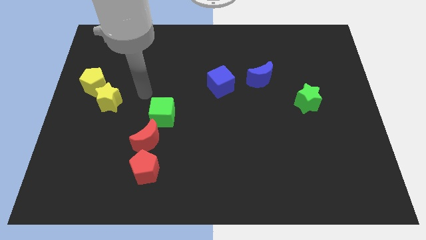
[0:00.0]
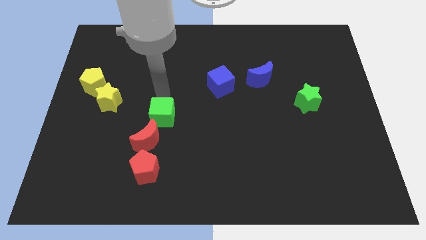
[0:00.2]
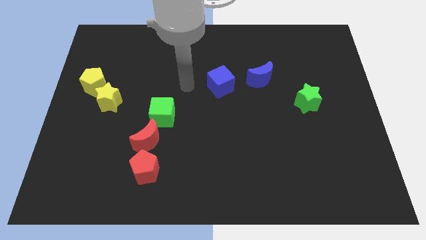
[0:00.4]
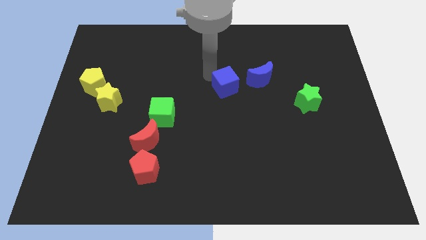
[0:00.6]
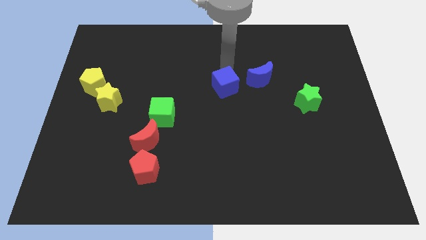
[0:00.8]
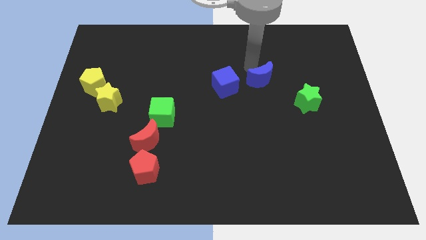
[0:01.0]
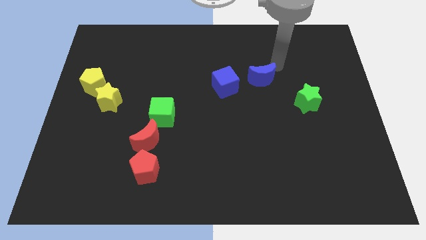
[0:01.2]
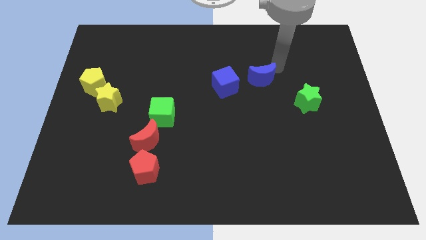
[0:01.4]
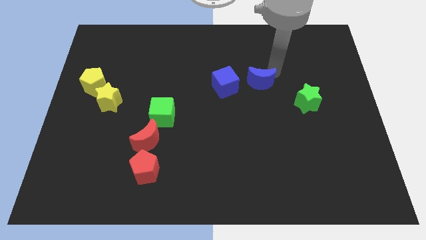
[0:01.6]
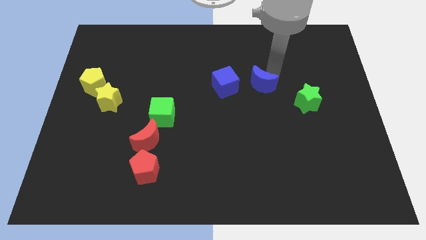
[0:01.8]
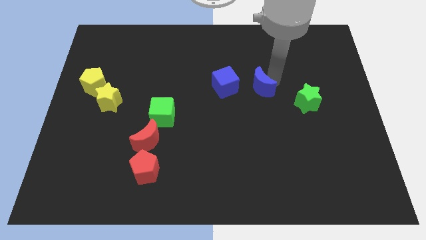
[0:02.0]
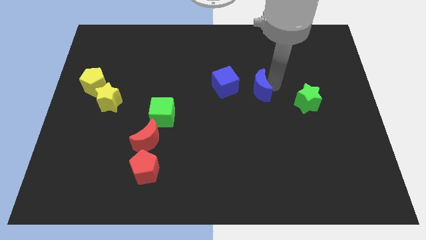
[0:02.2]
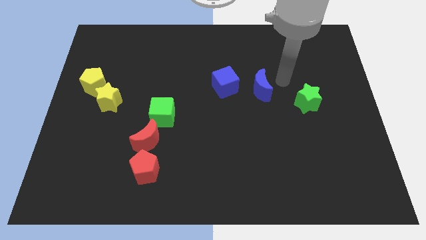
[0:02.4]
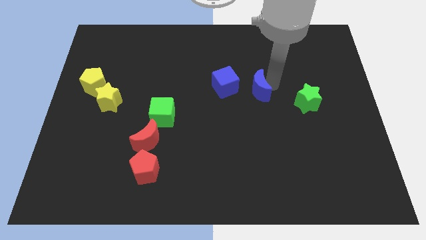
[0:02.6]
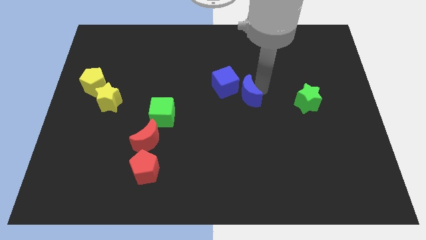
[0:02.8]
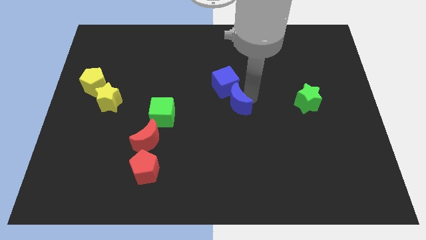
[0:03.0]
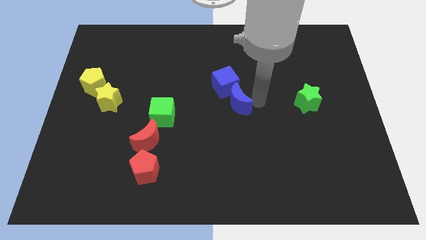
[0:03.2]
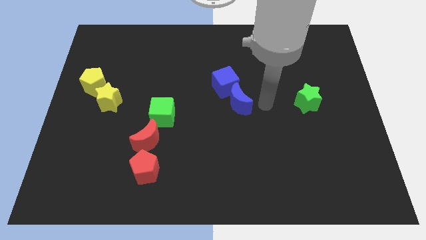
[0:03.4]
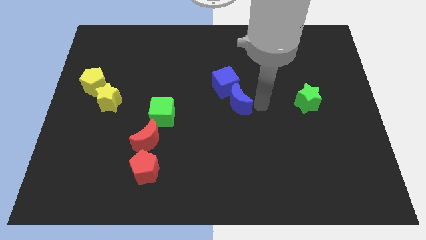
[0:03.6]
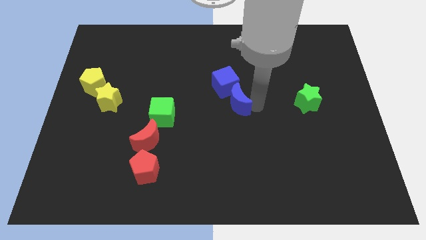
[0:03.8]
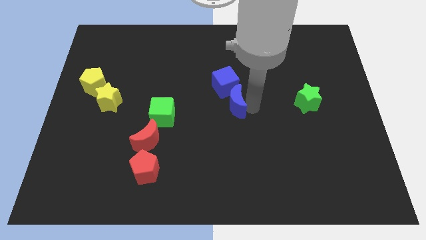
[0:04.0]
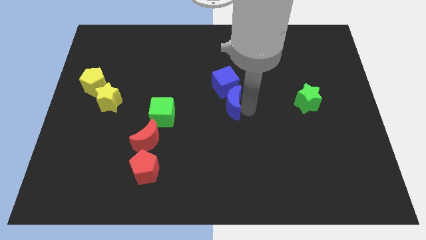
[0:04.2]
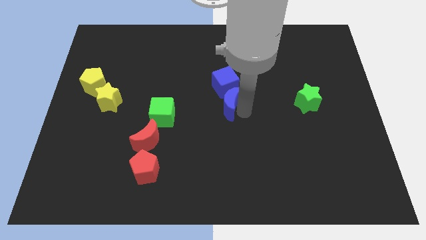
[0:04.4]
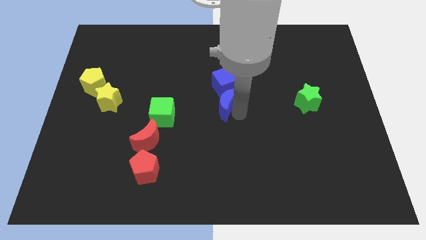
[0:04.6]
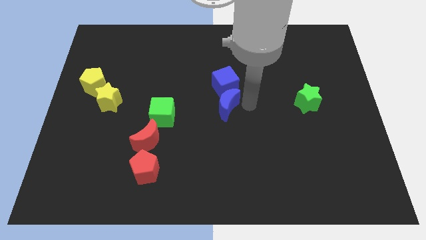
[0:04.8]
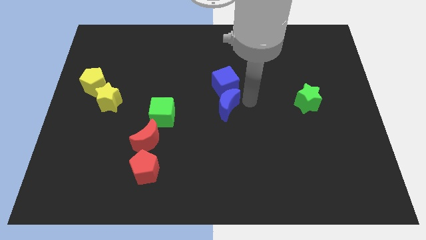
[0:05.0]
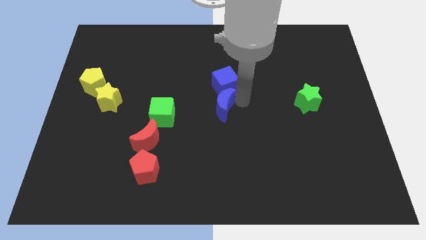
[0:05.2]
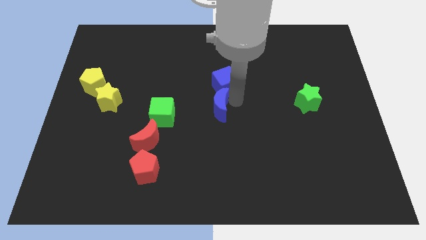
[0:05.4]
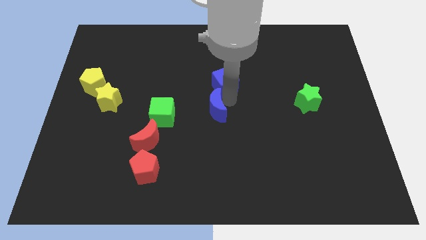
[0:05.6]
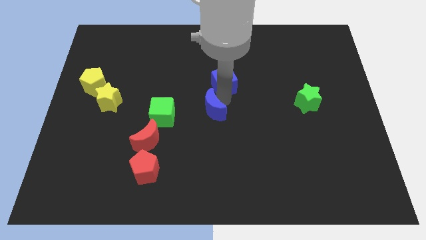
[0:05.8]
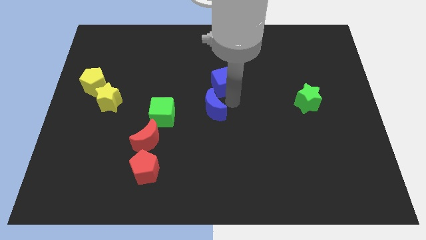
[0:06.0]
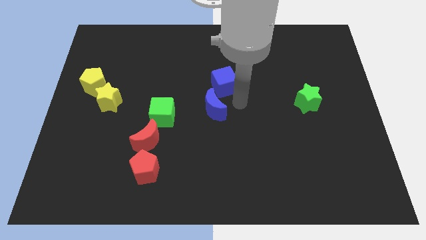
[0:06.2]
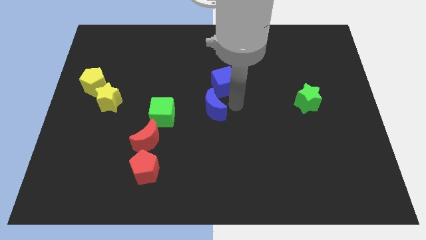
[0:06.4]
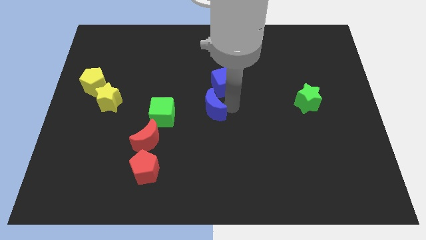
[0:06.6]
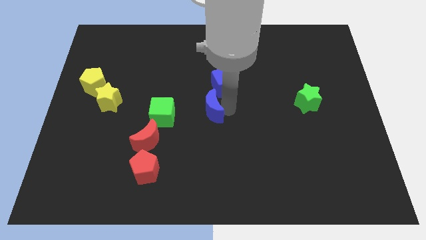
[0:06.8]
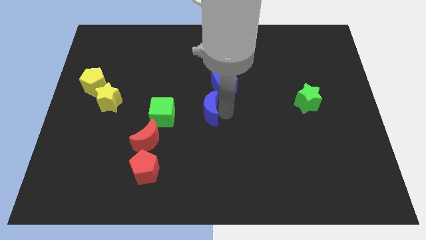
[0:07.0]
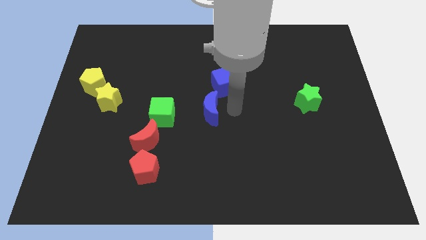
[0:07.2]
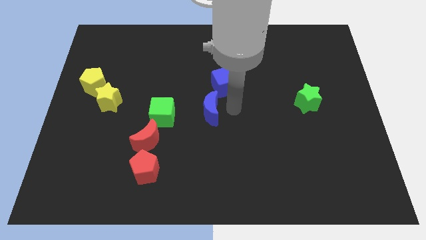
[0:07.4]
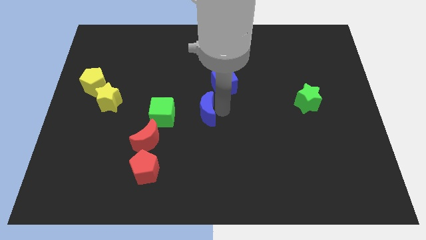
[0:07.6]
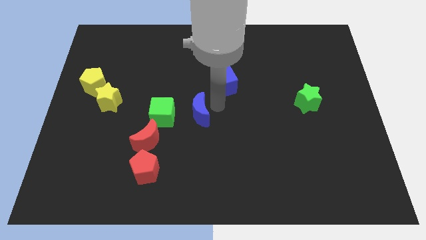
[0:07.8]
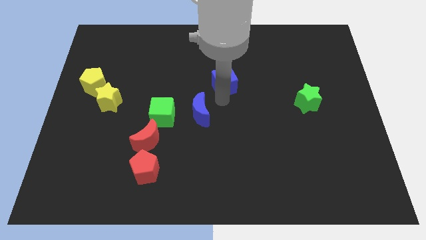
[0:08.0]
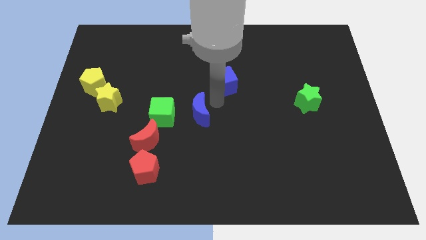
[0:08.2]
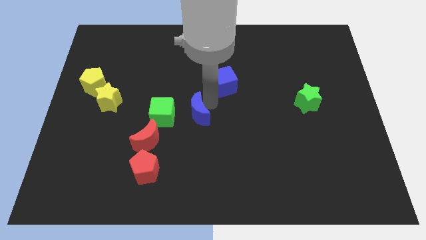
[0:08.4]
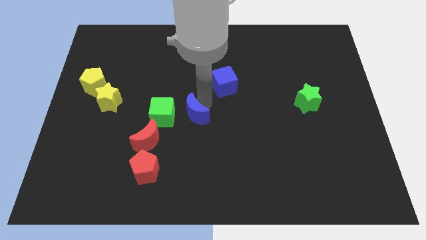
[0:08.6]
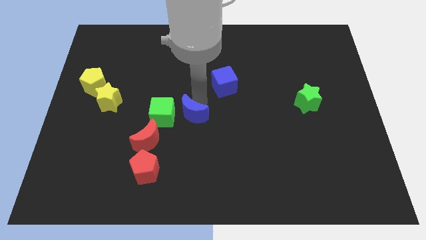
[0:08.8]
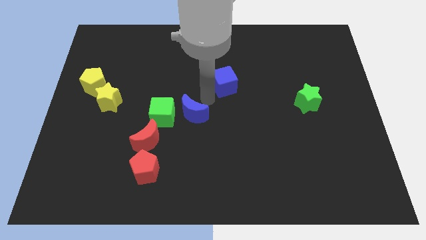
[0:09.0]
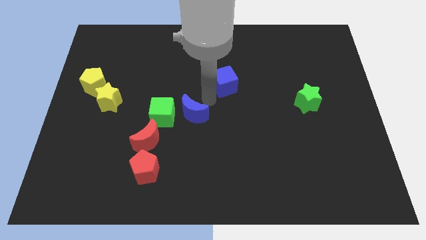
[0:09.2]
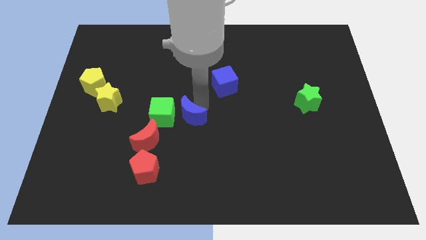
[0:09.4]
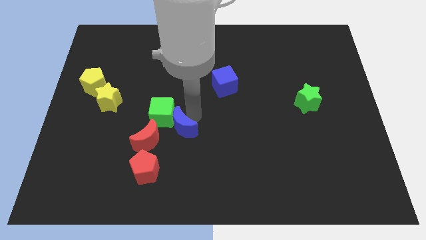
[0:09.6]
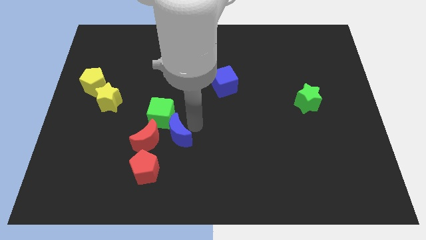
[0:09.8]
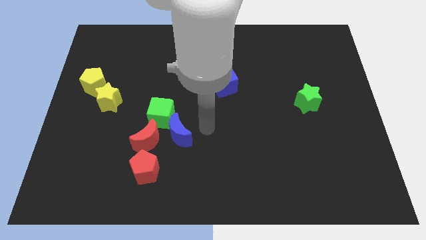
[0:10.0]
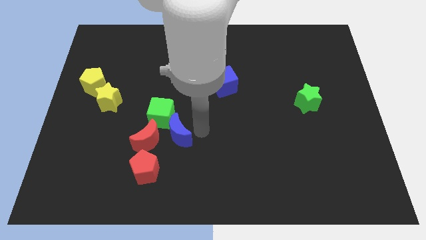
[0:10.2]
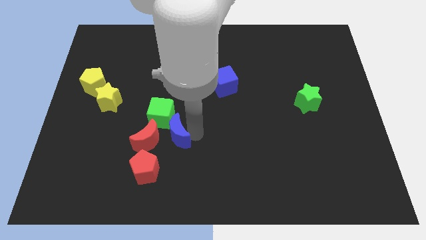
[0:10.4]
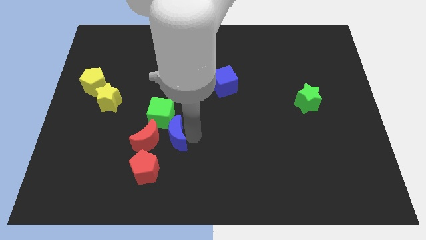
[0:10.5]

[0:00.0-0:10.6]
slide the blue moon close to the red moon

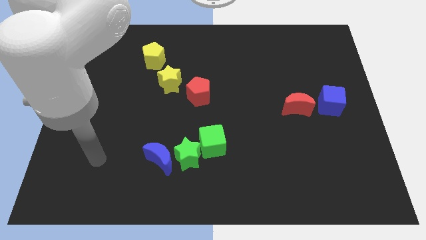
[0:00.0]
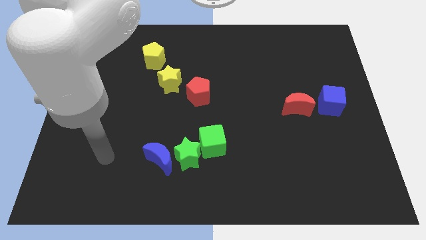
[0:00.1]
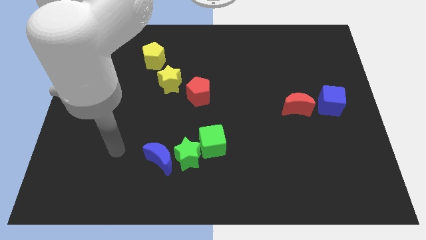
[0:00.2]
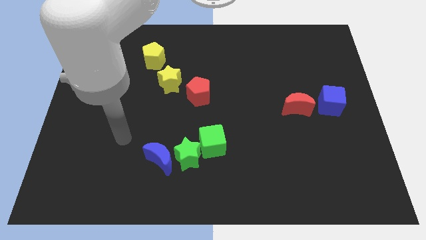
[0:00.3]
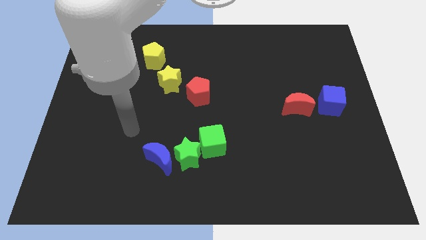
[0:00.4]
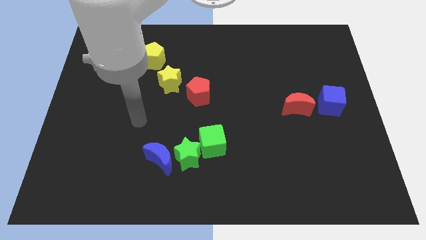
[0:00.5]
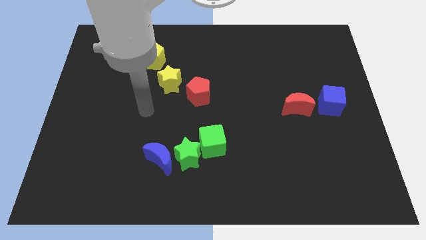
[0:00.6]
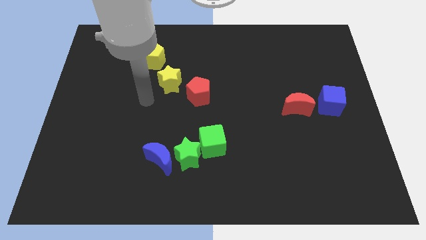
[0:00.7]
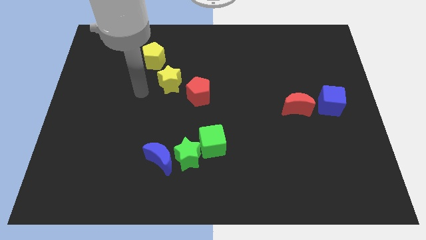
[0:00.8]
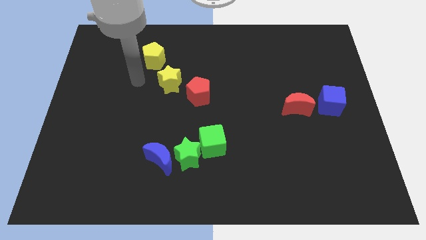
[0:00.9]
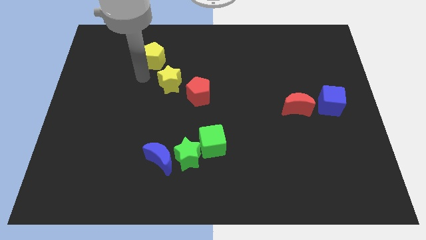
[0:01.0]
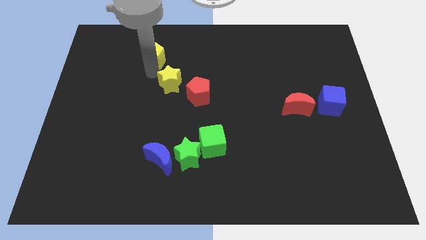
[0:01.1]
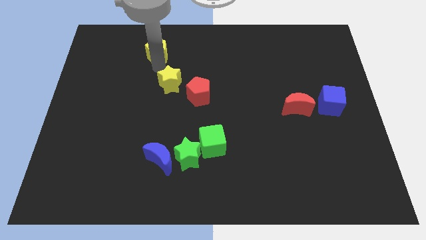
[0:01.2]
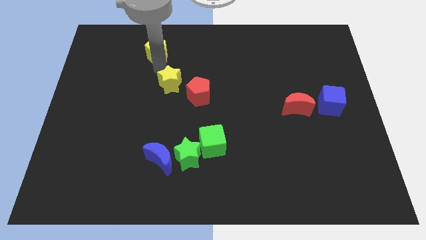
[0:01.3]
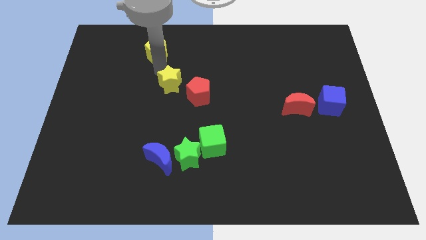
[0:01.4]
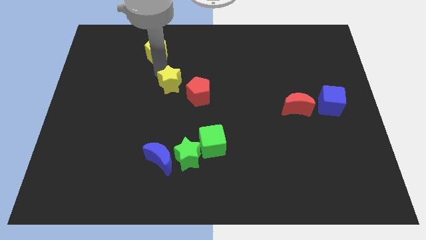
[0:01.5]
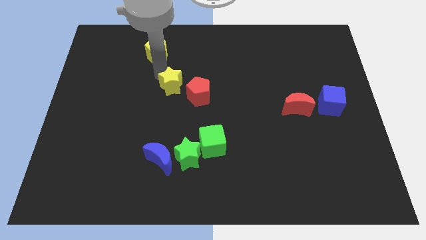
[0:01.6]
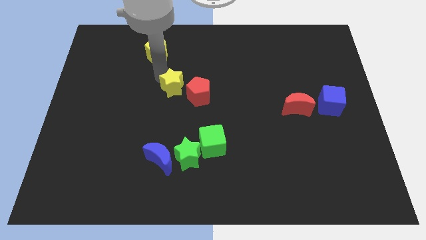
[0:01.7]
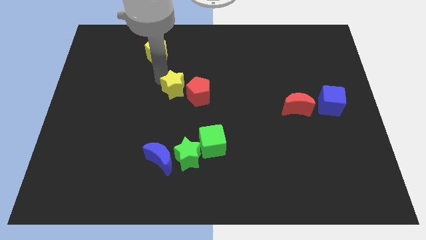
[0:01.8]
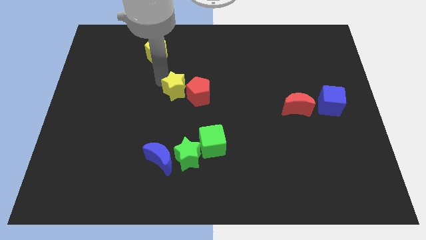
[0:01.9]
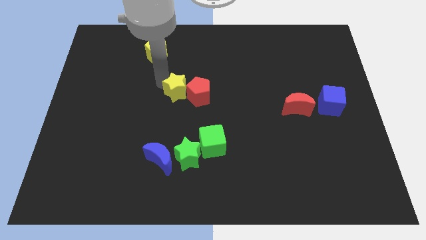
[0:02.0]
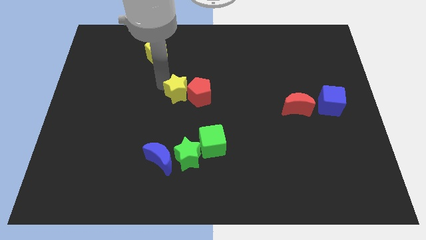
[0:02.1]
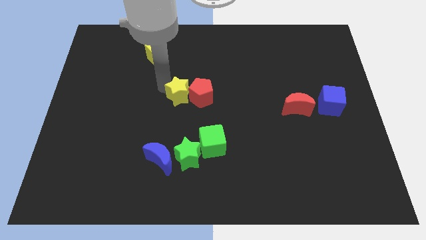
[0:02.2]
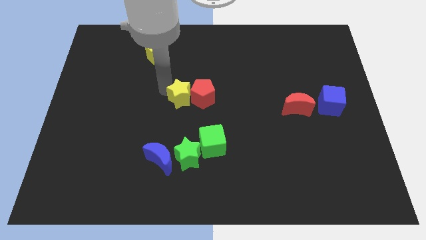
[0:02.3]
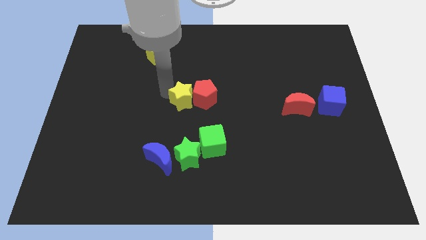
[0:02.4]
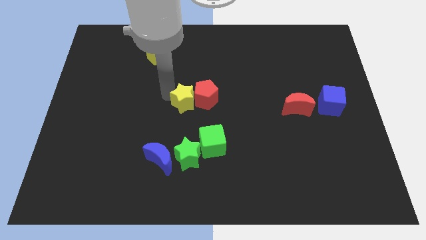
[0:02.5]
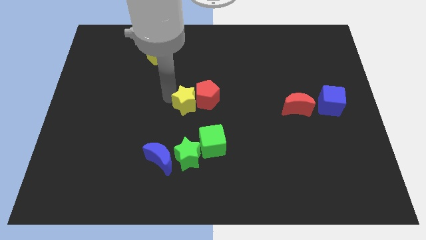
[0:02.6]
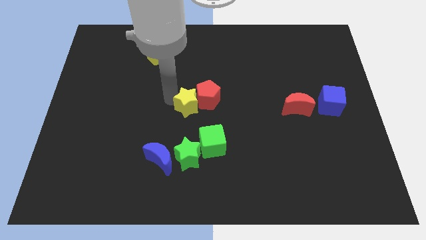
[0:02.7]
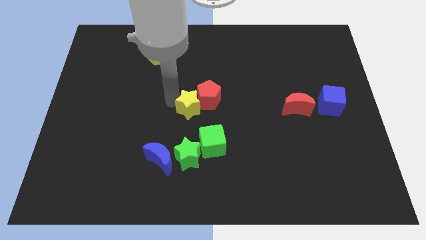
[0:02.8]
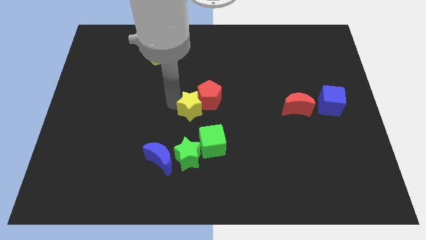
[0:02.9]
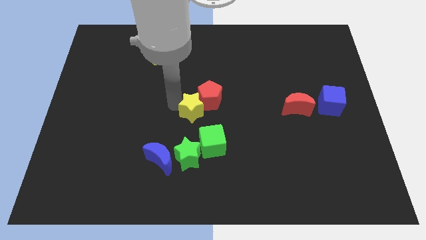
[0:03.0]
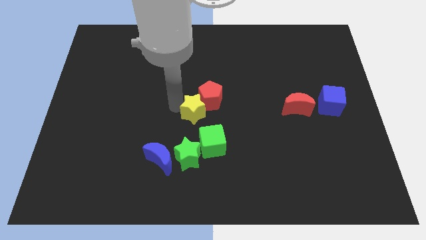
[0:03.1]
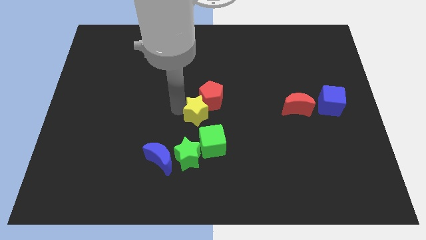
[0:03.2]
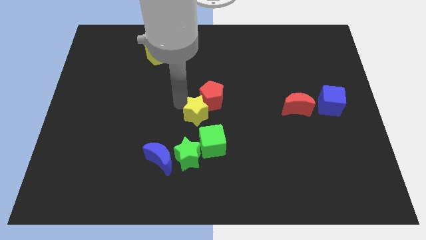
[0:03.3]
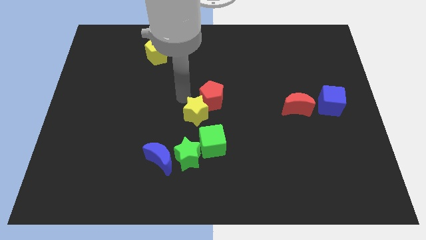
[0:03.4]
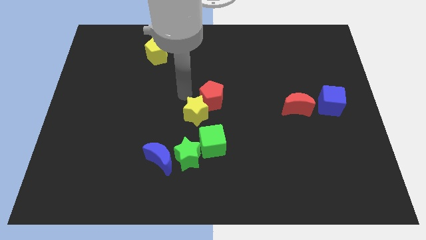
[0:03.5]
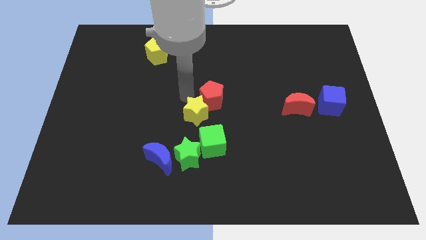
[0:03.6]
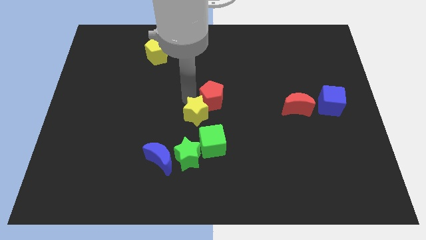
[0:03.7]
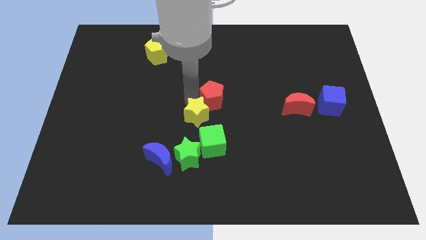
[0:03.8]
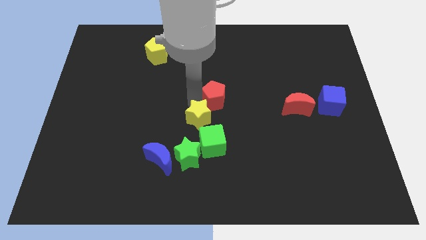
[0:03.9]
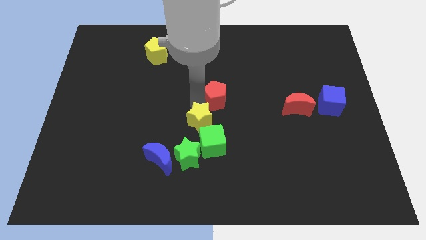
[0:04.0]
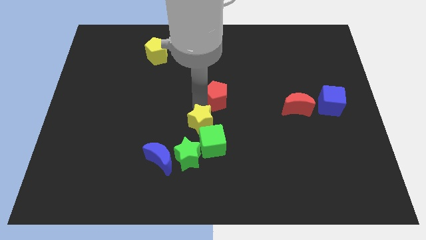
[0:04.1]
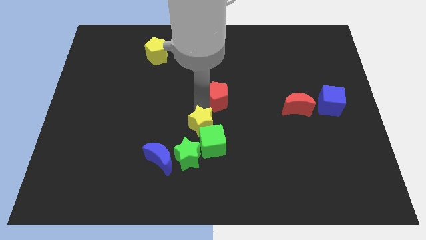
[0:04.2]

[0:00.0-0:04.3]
move the yellow star towards the green cube
